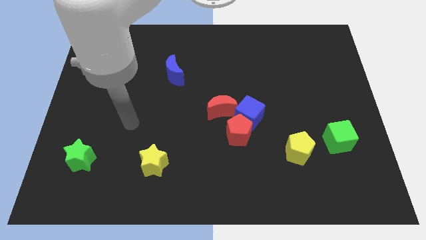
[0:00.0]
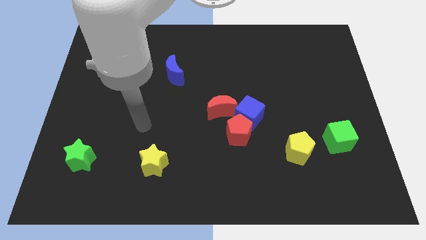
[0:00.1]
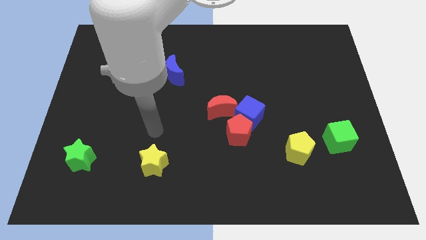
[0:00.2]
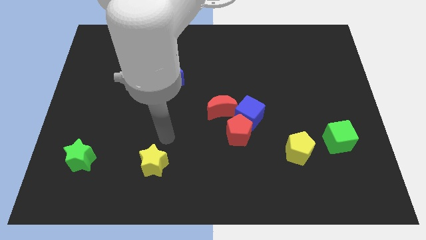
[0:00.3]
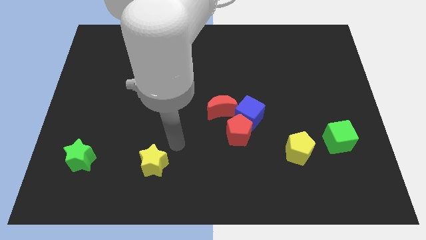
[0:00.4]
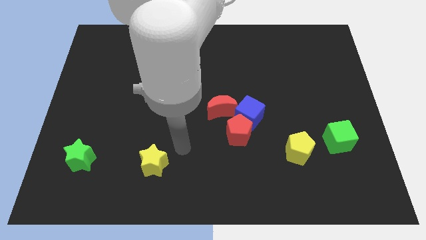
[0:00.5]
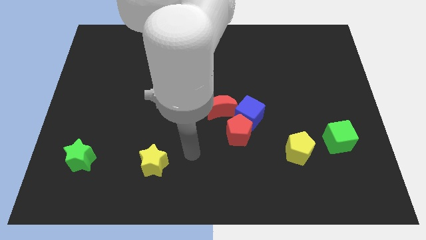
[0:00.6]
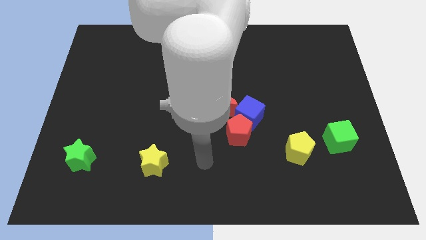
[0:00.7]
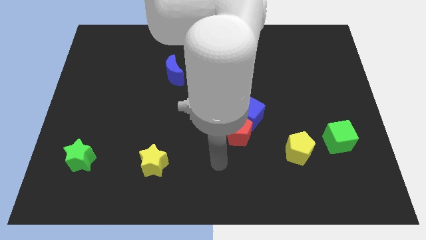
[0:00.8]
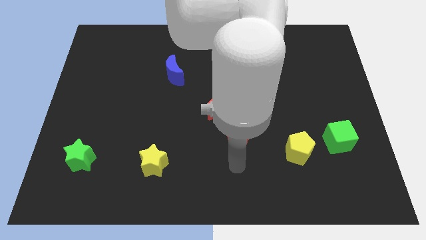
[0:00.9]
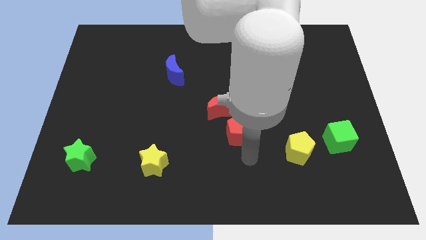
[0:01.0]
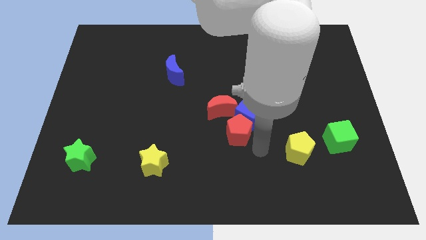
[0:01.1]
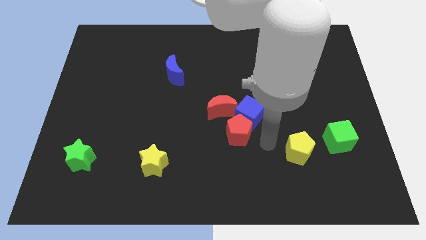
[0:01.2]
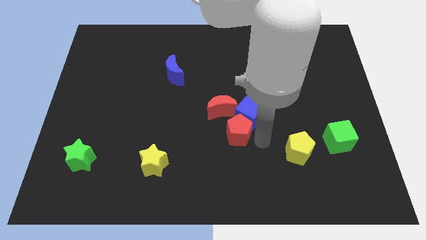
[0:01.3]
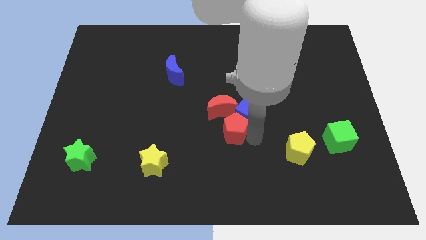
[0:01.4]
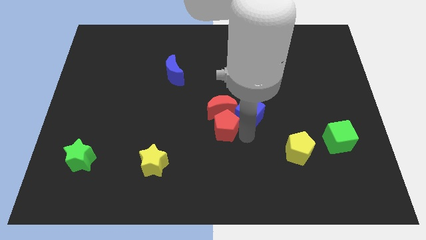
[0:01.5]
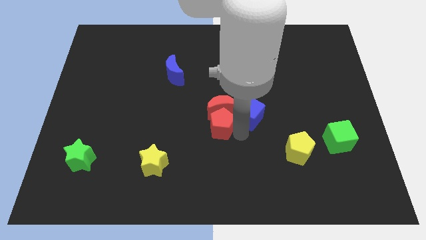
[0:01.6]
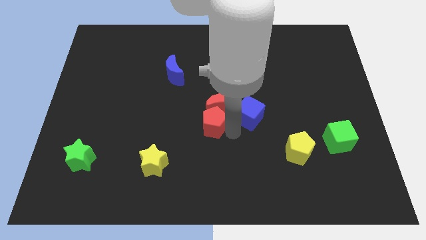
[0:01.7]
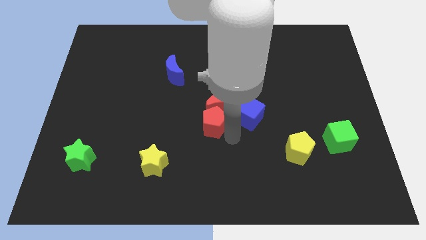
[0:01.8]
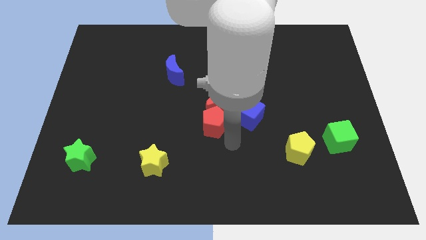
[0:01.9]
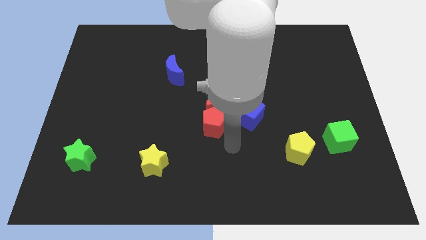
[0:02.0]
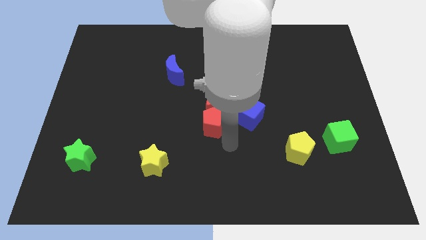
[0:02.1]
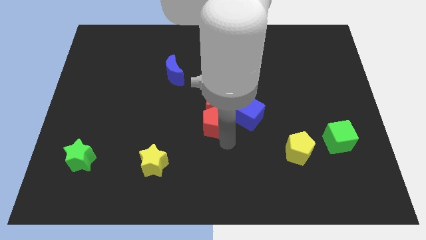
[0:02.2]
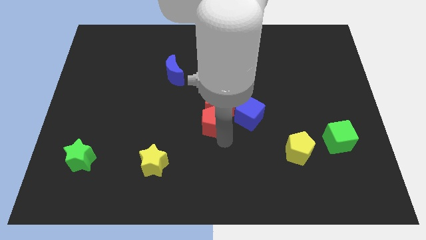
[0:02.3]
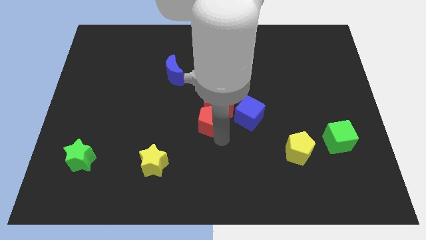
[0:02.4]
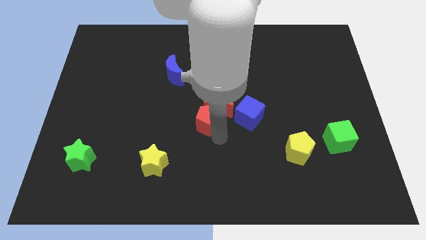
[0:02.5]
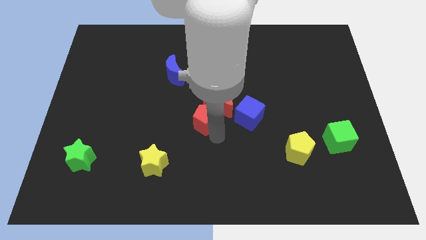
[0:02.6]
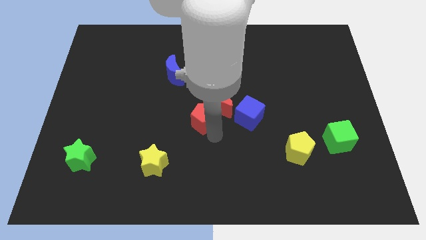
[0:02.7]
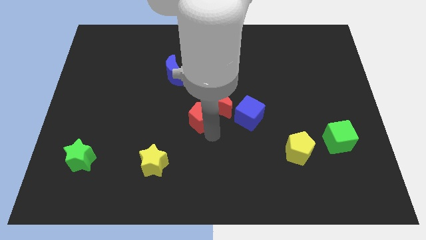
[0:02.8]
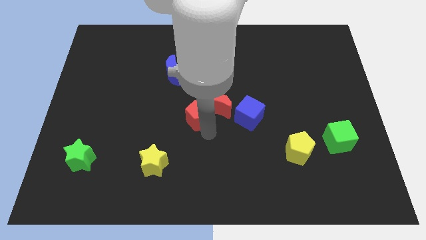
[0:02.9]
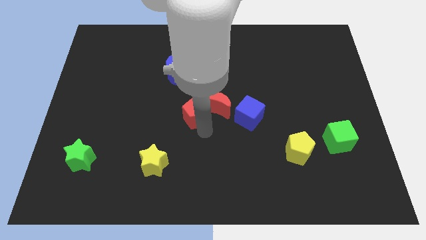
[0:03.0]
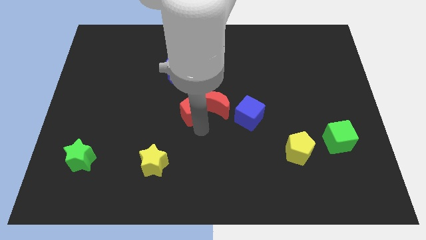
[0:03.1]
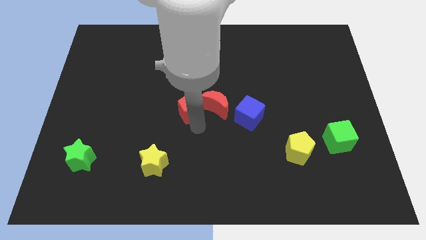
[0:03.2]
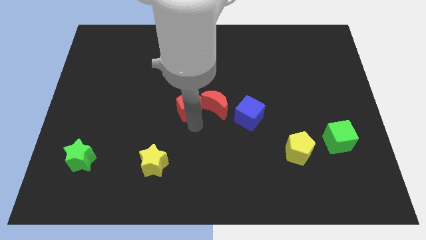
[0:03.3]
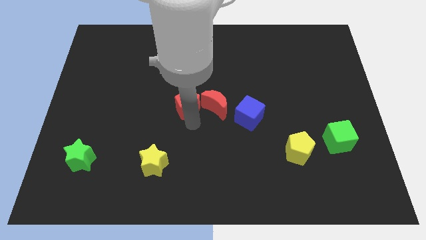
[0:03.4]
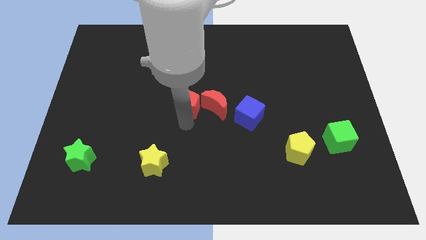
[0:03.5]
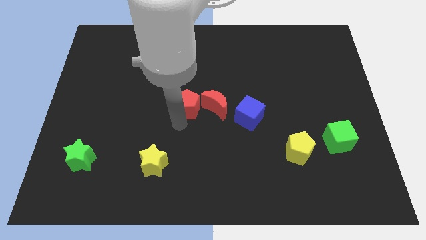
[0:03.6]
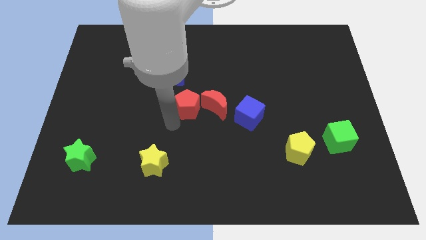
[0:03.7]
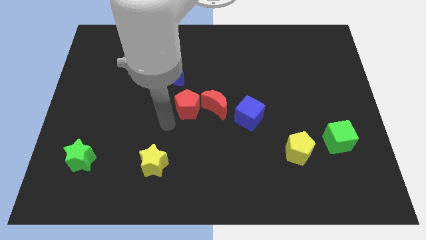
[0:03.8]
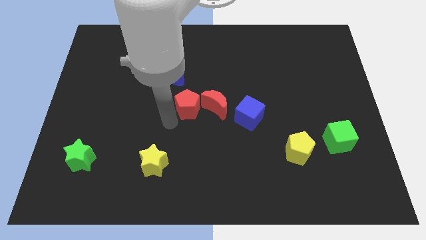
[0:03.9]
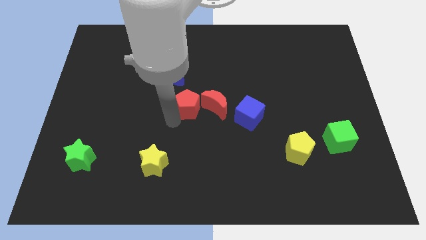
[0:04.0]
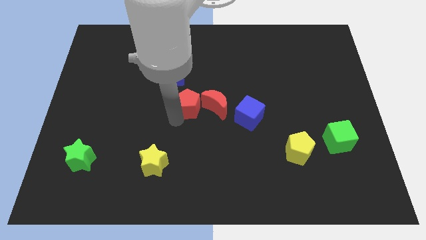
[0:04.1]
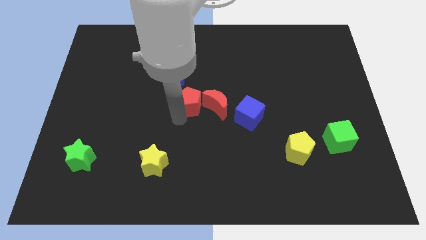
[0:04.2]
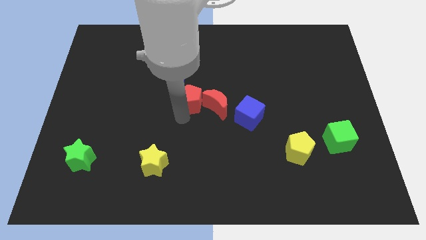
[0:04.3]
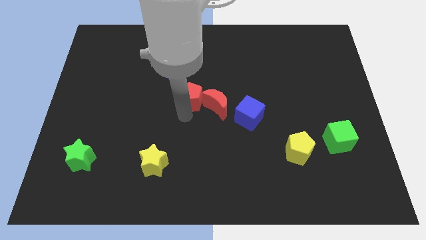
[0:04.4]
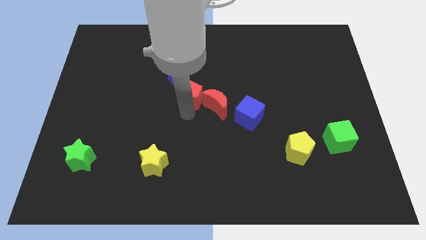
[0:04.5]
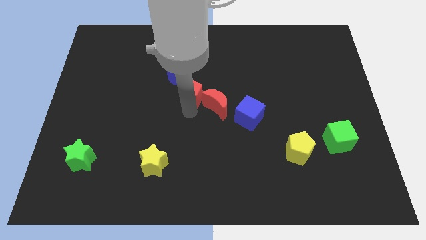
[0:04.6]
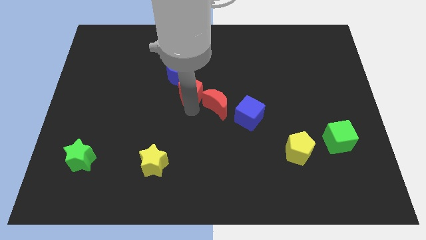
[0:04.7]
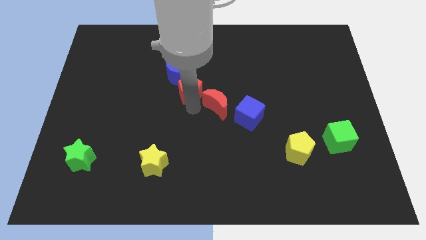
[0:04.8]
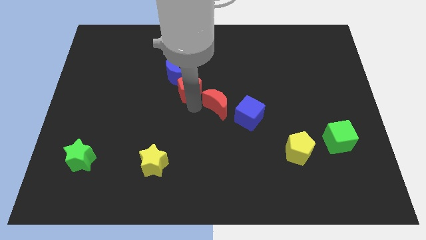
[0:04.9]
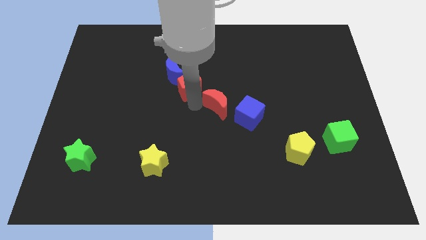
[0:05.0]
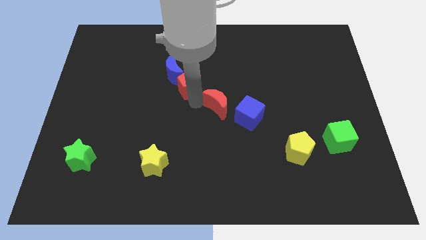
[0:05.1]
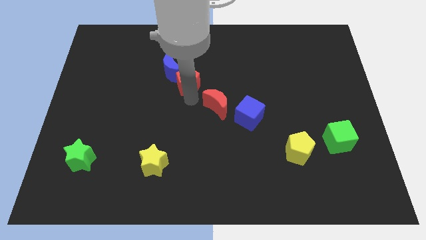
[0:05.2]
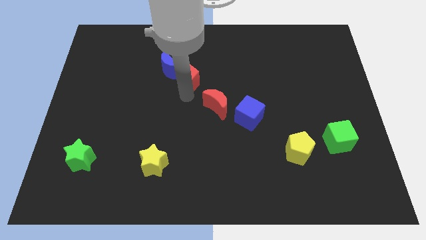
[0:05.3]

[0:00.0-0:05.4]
slightly move the red pentagon upwards

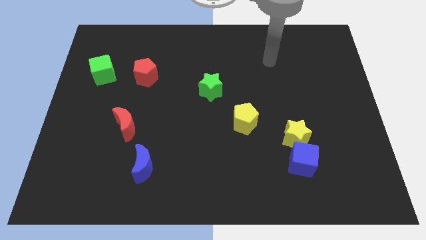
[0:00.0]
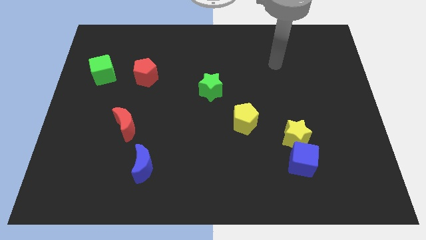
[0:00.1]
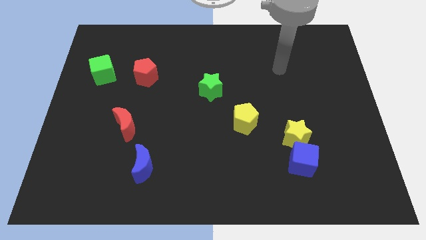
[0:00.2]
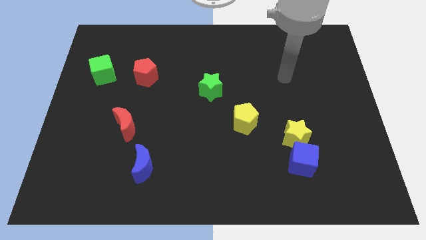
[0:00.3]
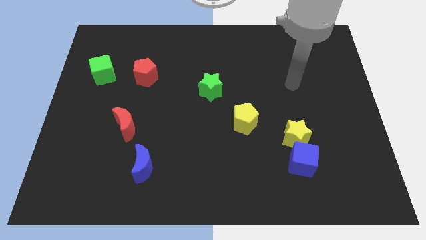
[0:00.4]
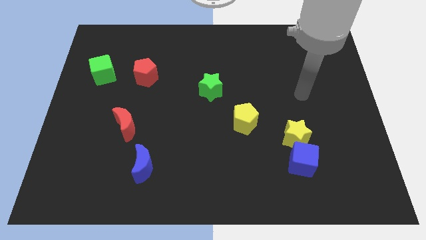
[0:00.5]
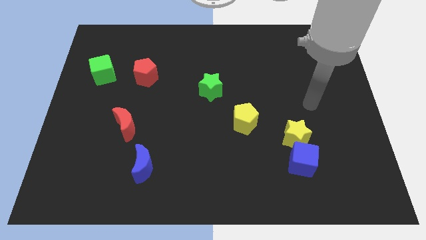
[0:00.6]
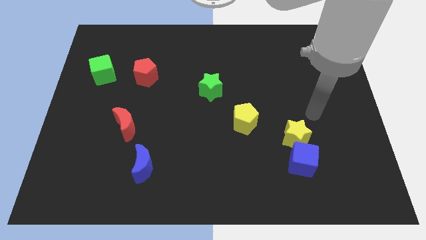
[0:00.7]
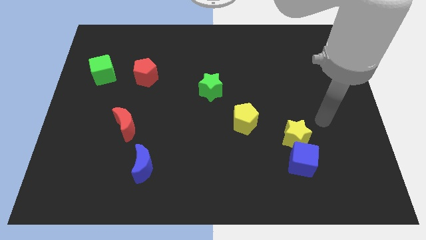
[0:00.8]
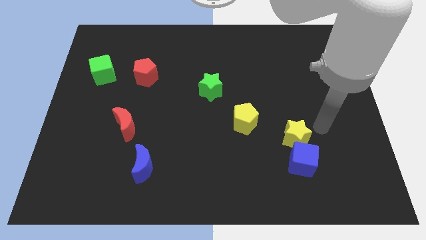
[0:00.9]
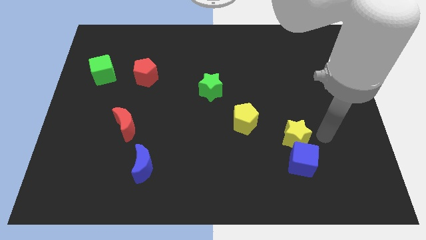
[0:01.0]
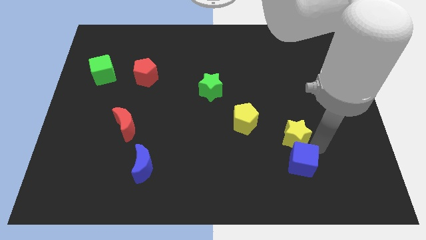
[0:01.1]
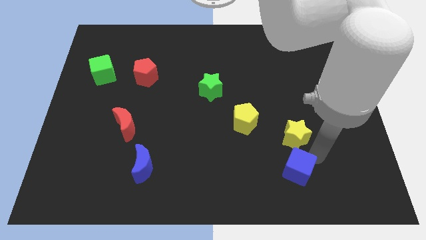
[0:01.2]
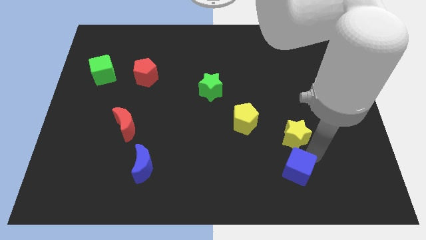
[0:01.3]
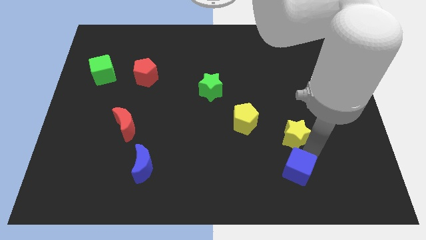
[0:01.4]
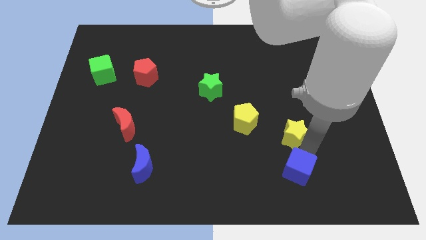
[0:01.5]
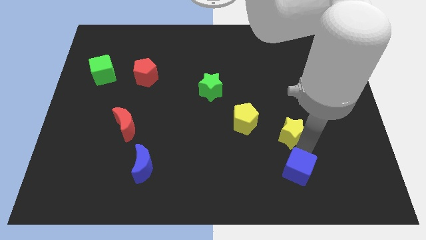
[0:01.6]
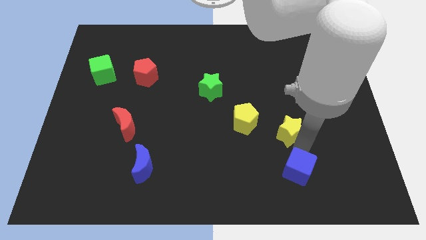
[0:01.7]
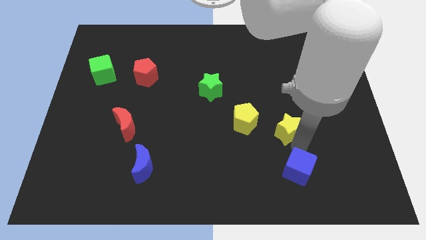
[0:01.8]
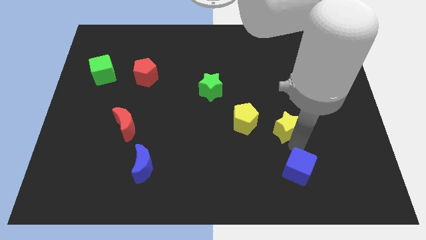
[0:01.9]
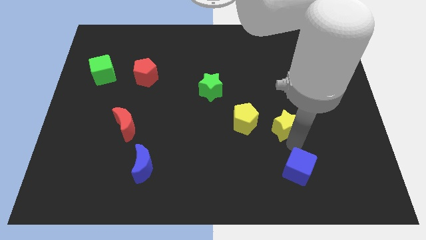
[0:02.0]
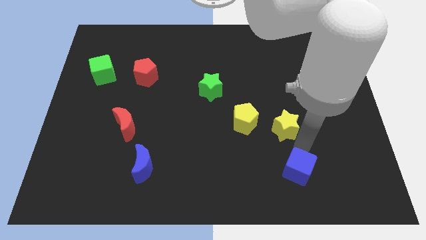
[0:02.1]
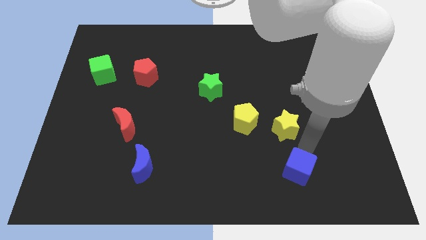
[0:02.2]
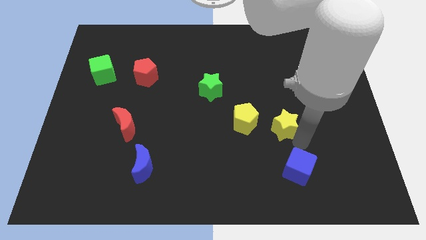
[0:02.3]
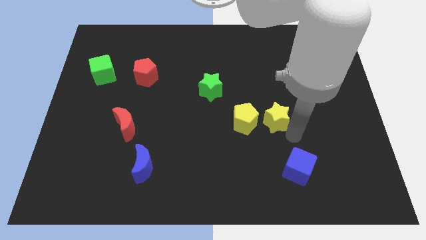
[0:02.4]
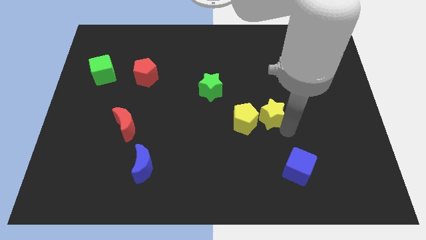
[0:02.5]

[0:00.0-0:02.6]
push the yellow star somewhat upwards and left diagonally

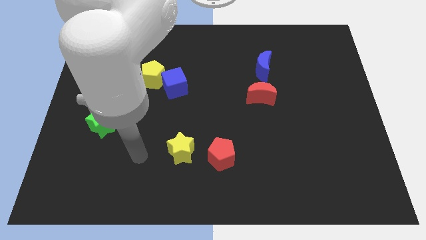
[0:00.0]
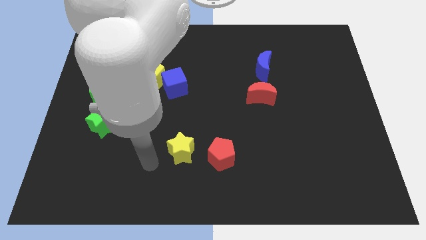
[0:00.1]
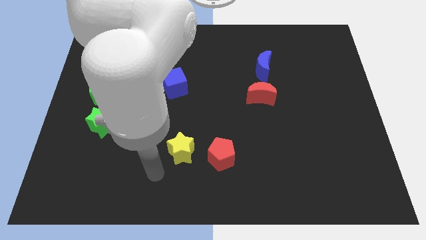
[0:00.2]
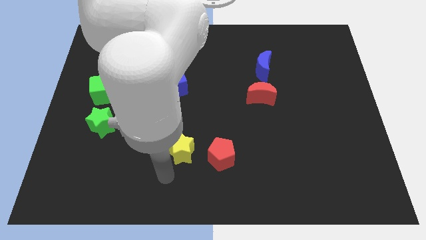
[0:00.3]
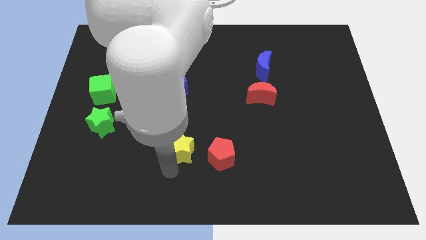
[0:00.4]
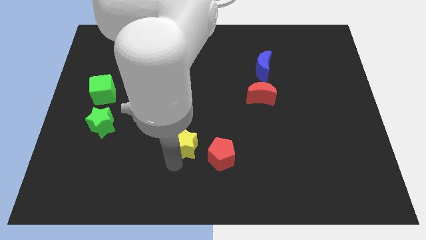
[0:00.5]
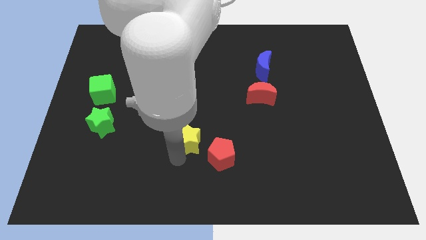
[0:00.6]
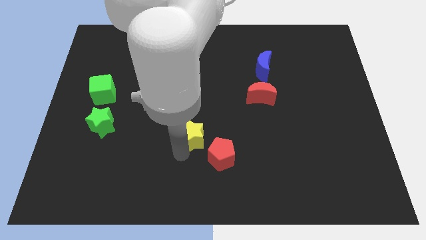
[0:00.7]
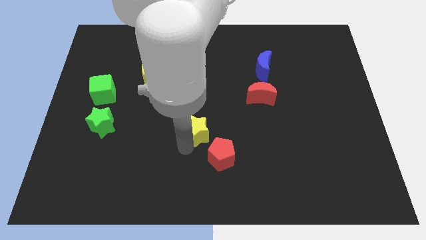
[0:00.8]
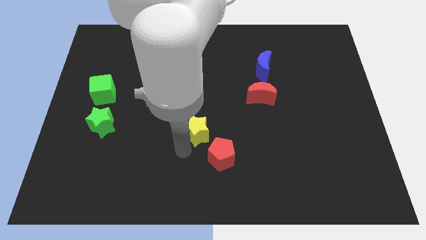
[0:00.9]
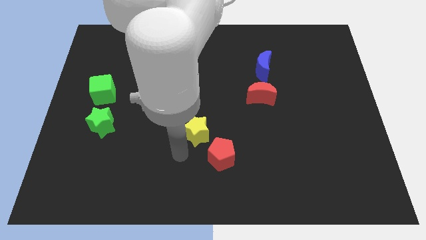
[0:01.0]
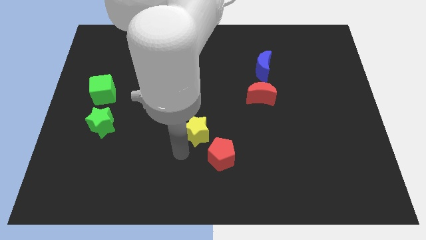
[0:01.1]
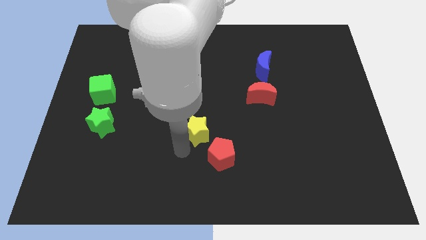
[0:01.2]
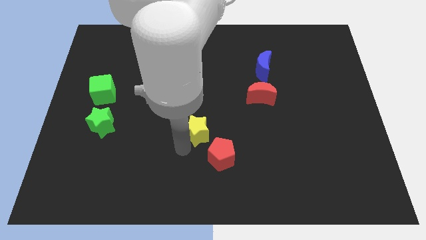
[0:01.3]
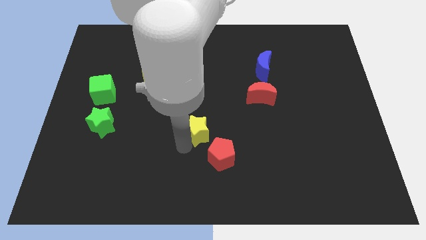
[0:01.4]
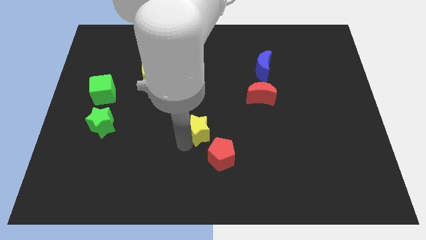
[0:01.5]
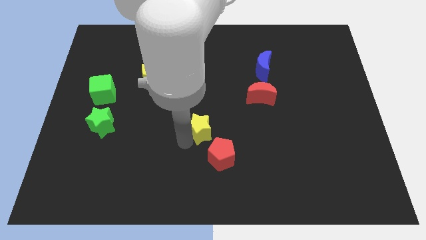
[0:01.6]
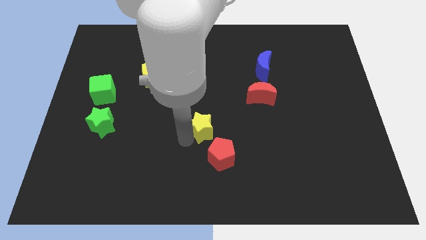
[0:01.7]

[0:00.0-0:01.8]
move the yellow star up and to the right diagonally a bit
